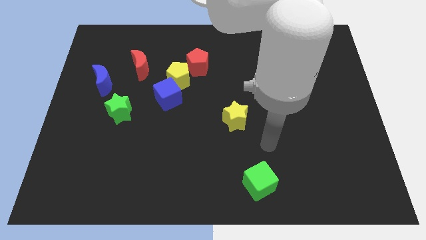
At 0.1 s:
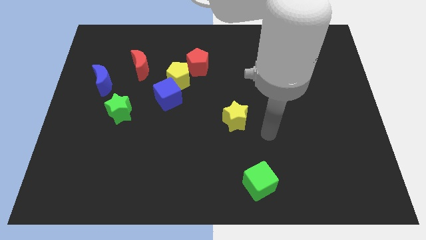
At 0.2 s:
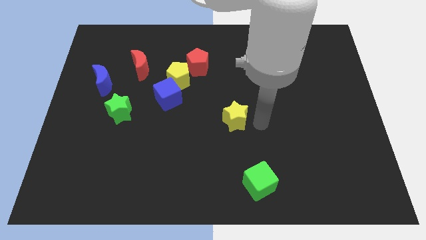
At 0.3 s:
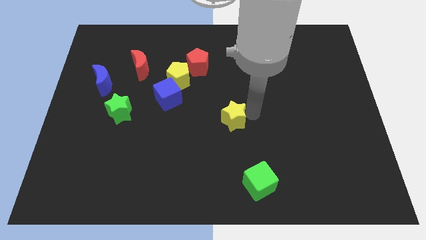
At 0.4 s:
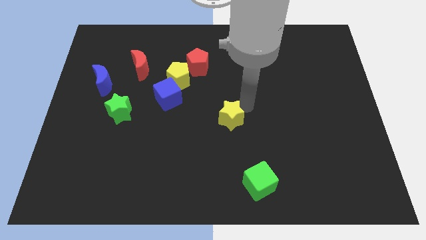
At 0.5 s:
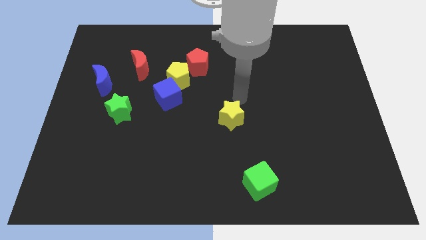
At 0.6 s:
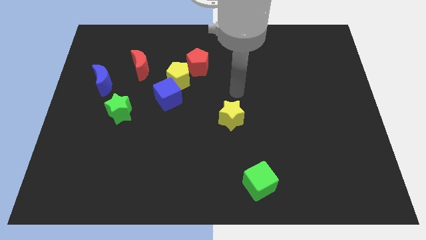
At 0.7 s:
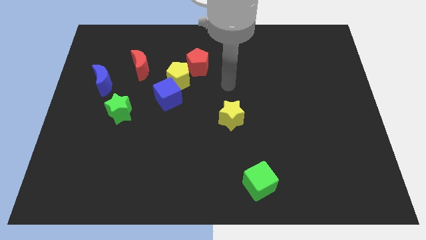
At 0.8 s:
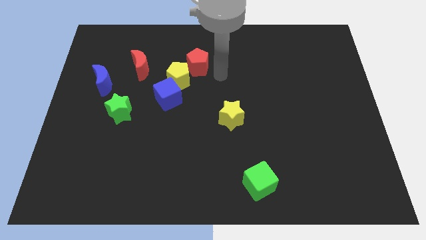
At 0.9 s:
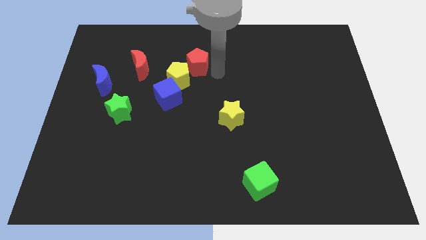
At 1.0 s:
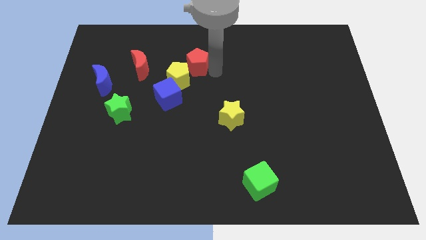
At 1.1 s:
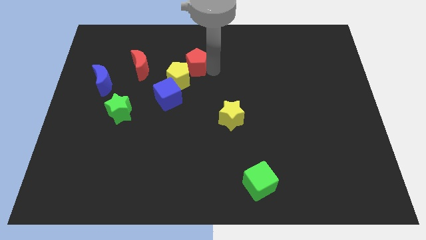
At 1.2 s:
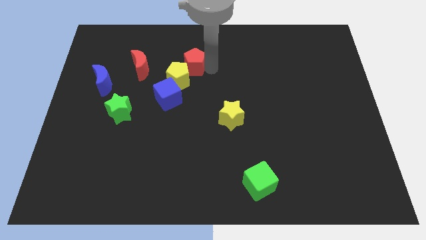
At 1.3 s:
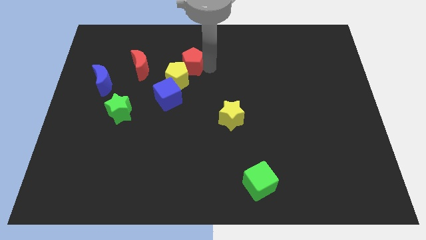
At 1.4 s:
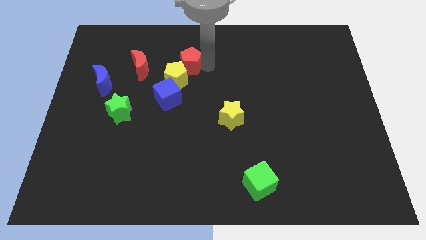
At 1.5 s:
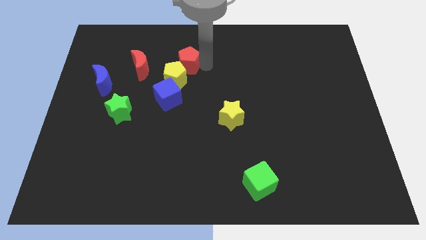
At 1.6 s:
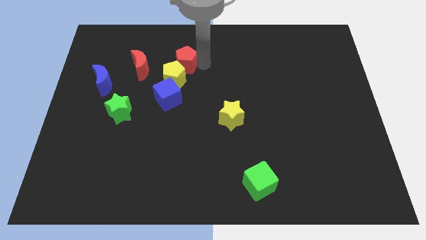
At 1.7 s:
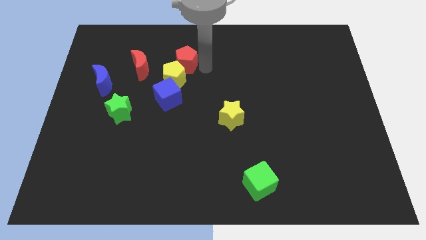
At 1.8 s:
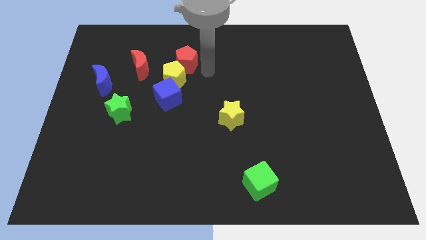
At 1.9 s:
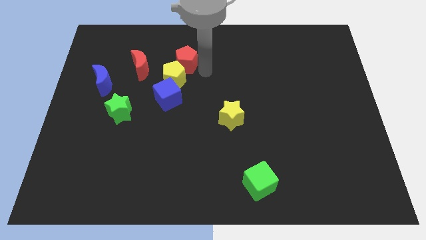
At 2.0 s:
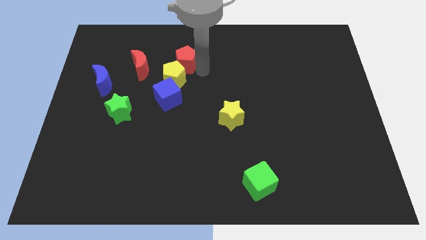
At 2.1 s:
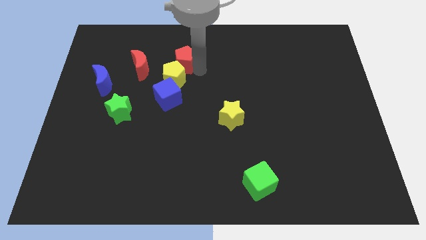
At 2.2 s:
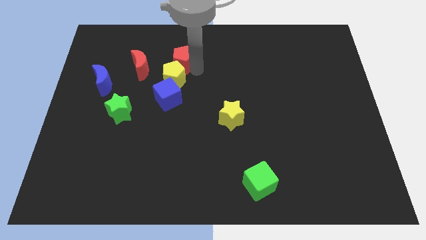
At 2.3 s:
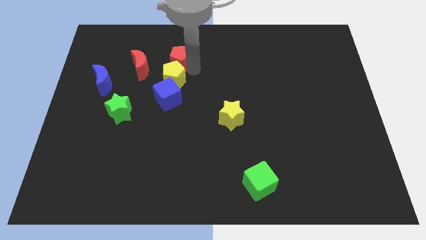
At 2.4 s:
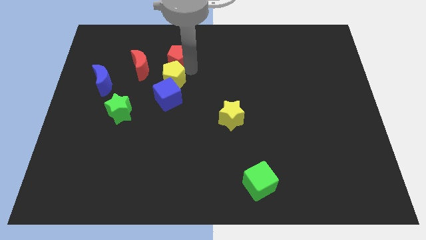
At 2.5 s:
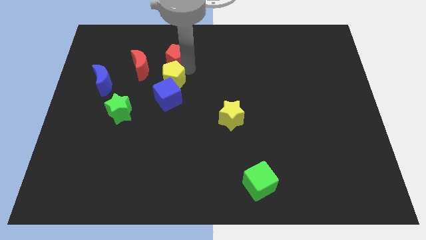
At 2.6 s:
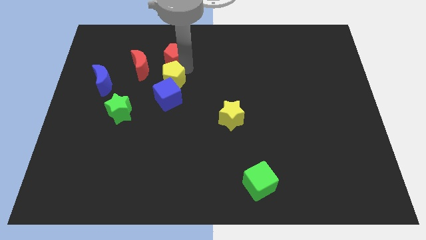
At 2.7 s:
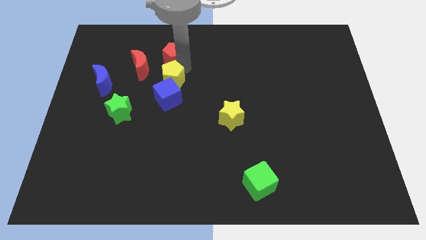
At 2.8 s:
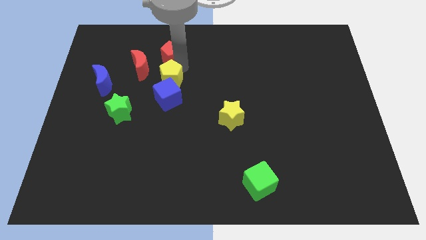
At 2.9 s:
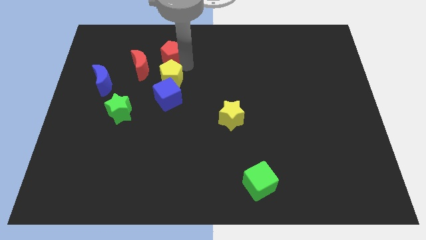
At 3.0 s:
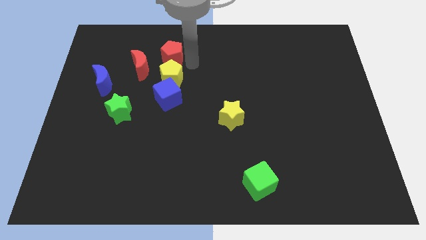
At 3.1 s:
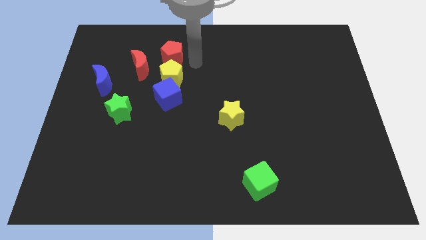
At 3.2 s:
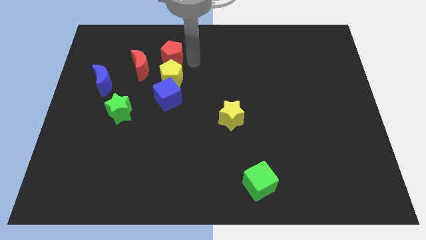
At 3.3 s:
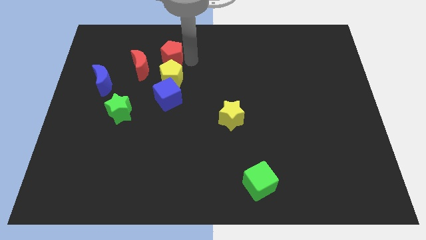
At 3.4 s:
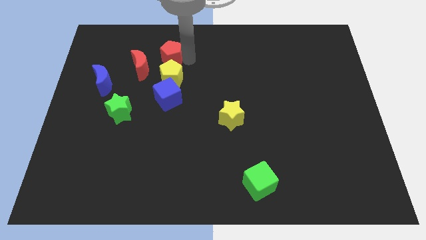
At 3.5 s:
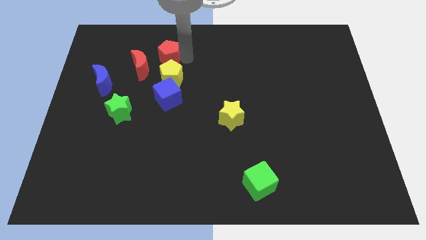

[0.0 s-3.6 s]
slide the red pentagon left slightly

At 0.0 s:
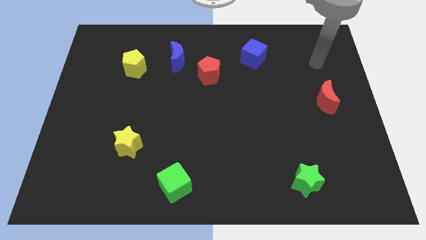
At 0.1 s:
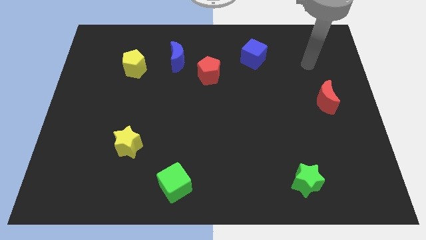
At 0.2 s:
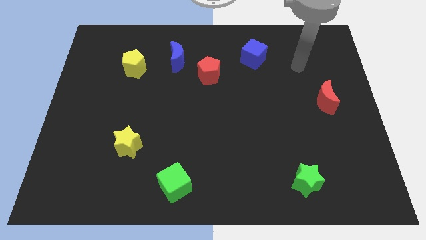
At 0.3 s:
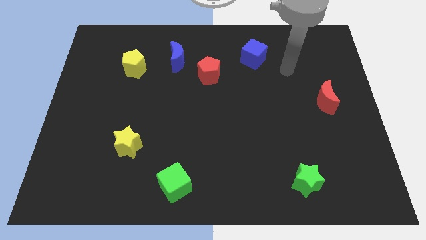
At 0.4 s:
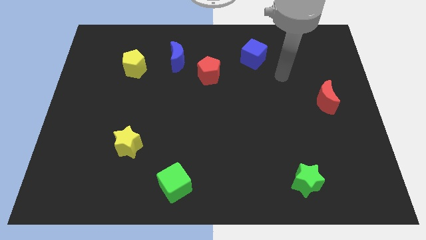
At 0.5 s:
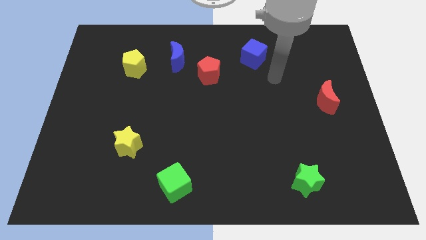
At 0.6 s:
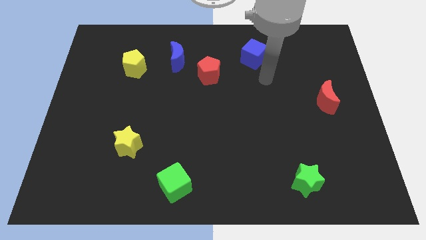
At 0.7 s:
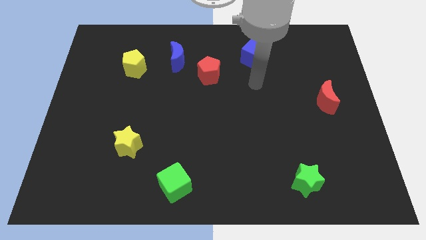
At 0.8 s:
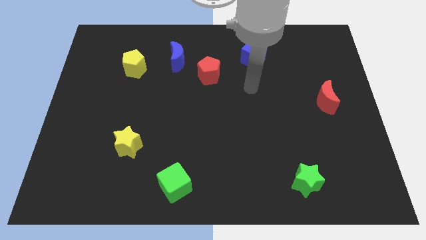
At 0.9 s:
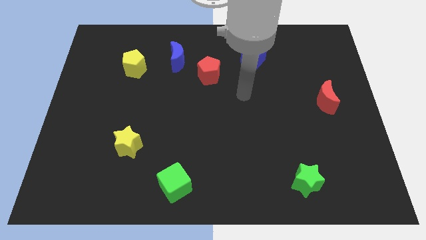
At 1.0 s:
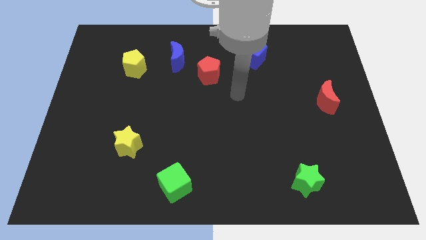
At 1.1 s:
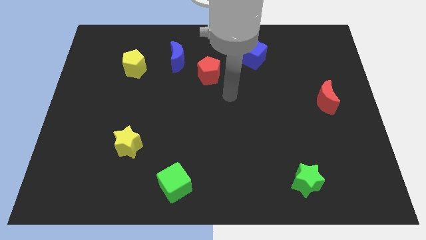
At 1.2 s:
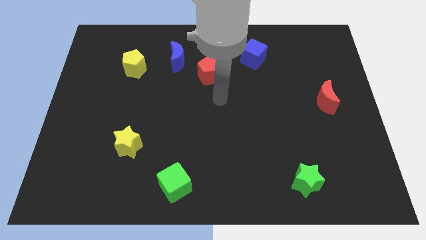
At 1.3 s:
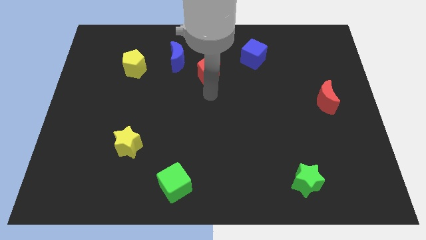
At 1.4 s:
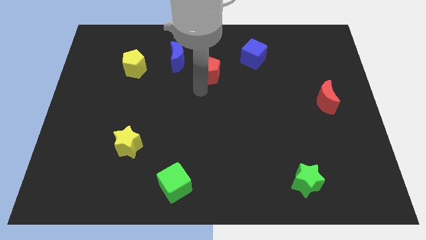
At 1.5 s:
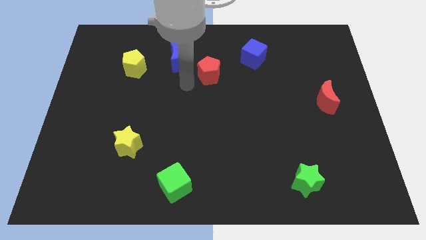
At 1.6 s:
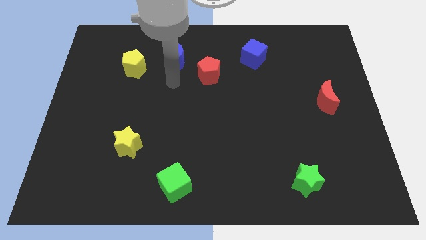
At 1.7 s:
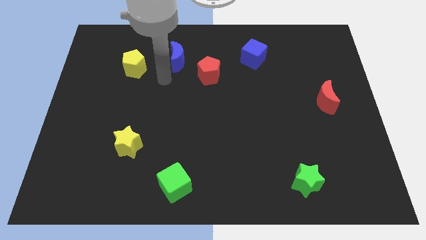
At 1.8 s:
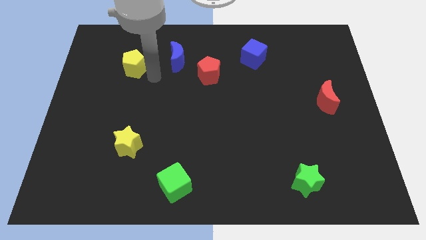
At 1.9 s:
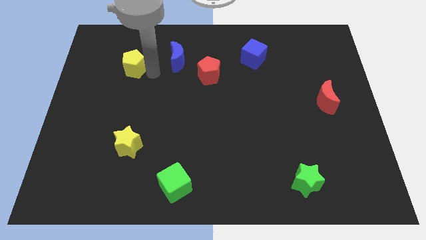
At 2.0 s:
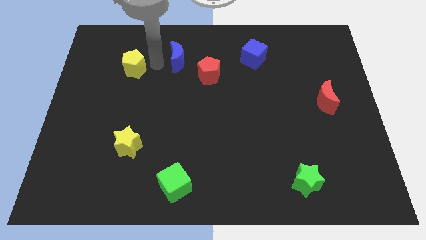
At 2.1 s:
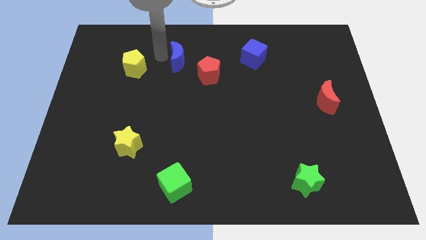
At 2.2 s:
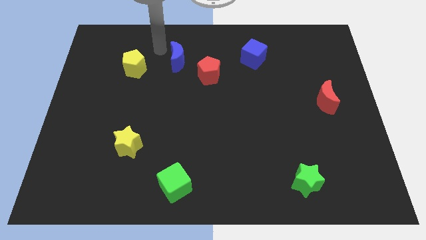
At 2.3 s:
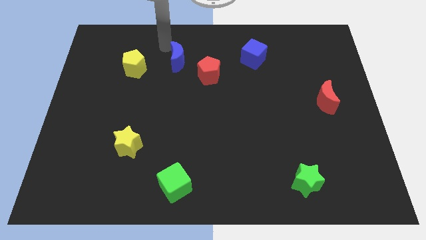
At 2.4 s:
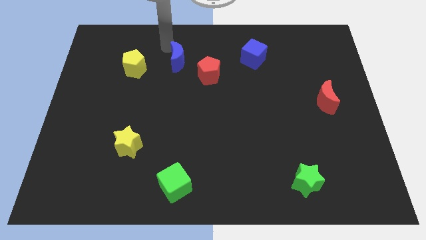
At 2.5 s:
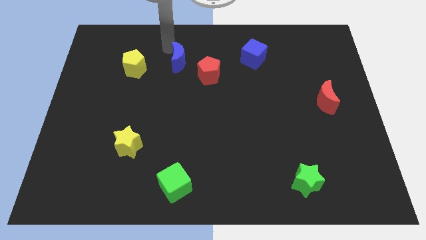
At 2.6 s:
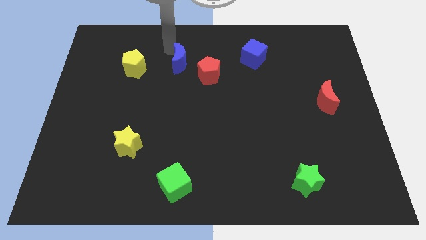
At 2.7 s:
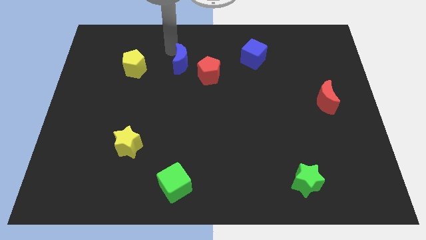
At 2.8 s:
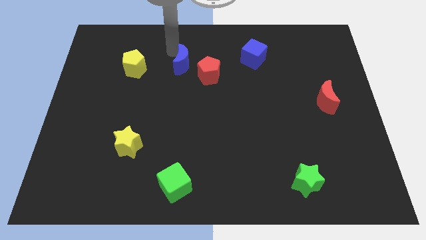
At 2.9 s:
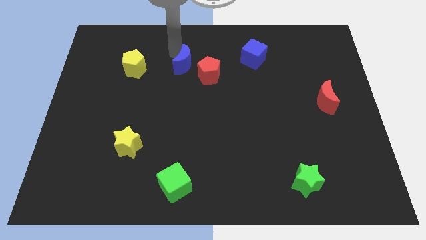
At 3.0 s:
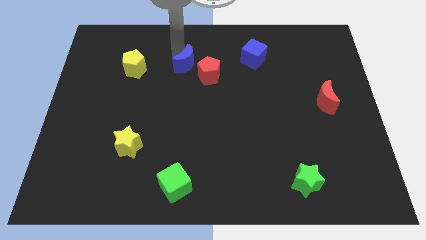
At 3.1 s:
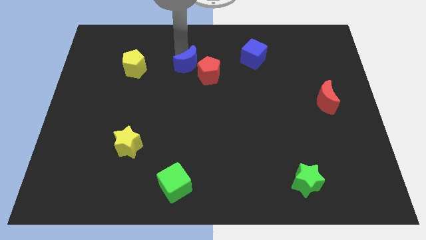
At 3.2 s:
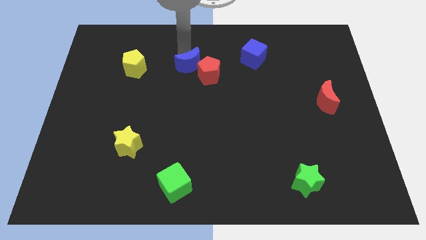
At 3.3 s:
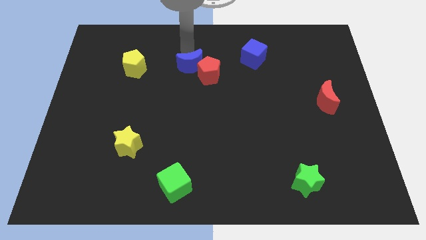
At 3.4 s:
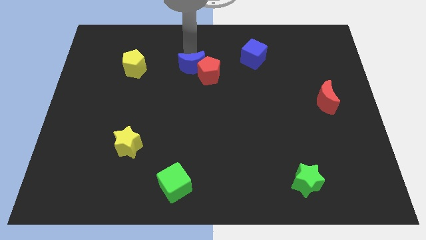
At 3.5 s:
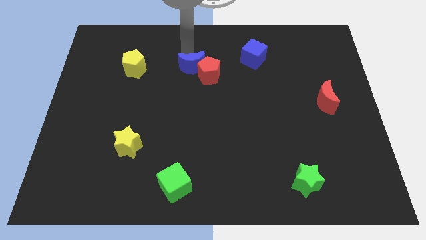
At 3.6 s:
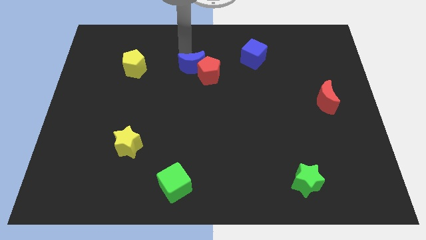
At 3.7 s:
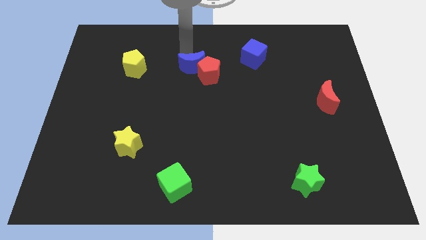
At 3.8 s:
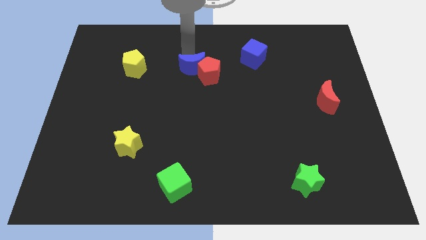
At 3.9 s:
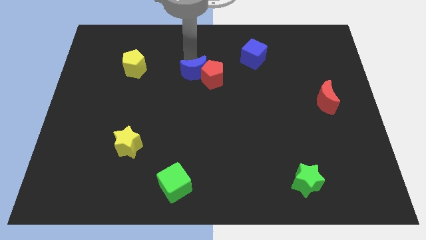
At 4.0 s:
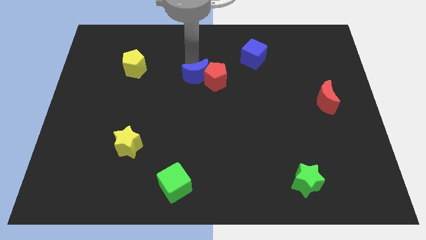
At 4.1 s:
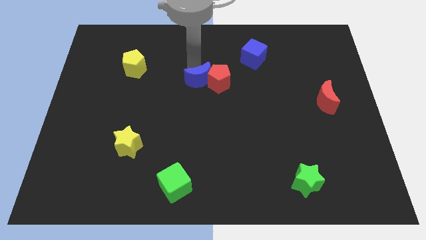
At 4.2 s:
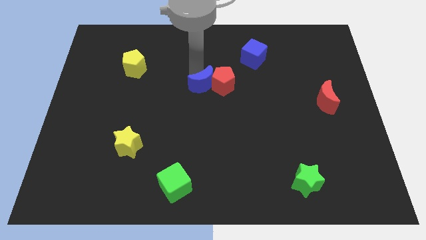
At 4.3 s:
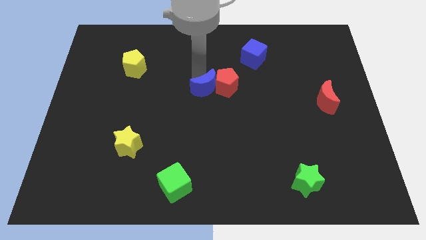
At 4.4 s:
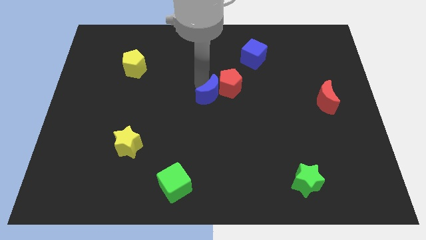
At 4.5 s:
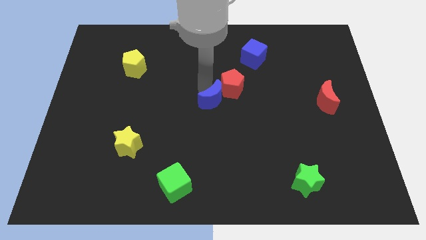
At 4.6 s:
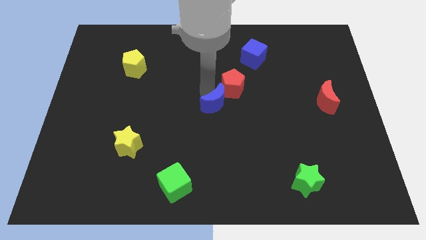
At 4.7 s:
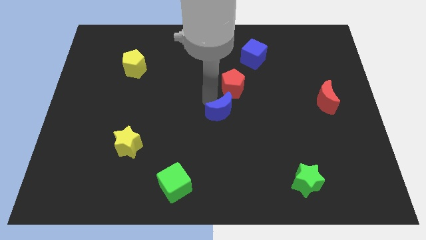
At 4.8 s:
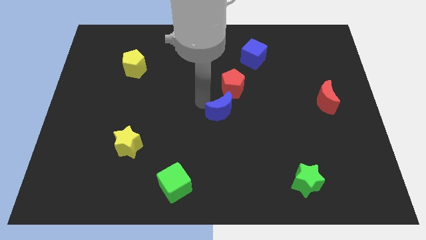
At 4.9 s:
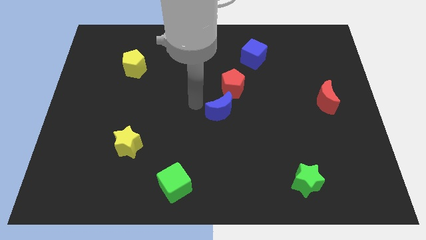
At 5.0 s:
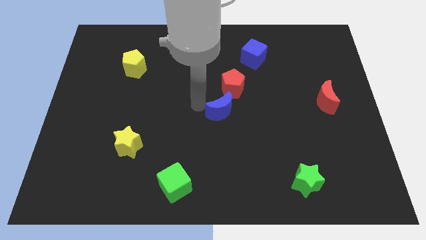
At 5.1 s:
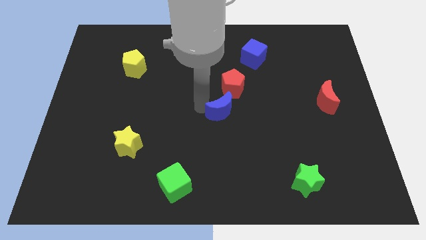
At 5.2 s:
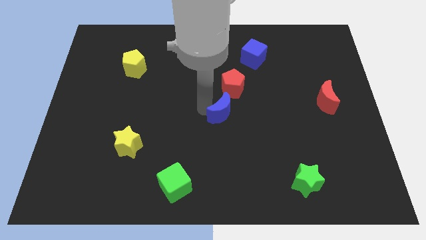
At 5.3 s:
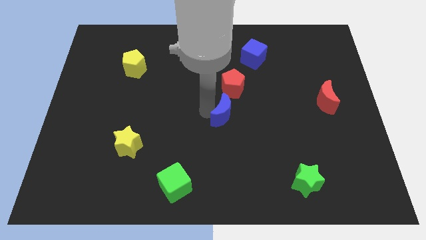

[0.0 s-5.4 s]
push the blue moon downwards and right
